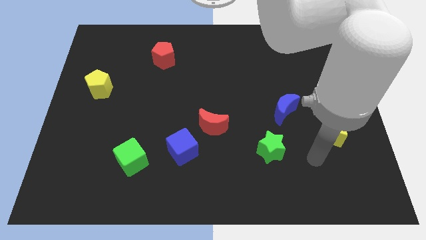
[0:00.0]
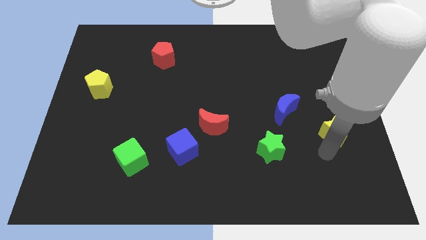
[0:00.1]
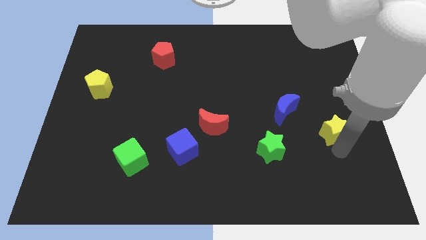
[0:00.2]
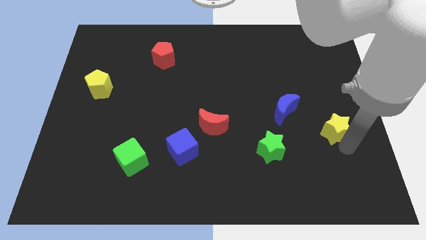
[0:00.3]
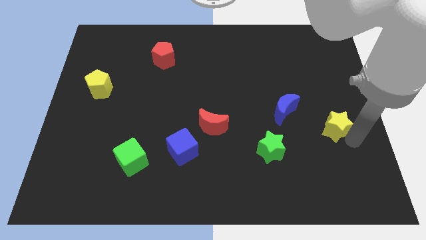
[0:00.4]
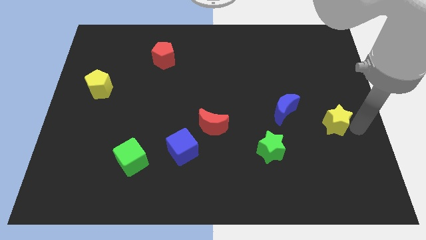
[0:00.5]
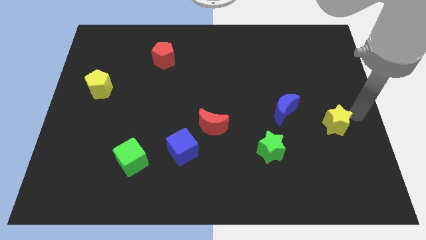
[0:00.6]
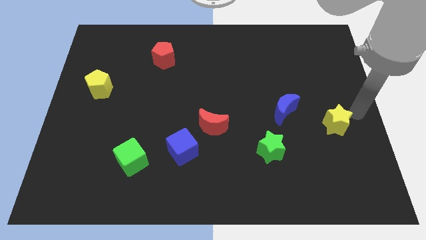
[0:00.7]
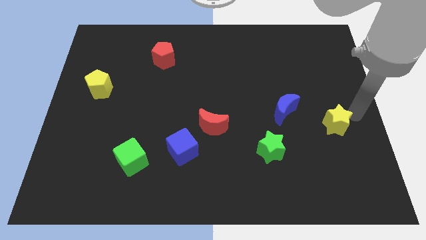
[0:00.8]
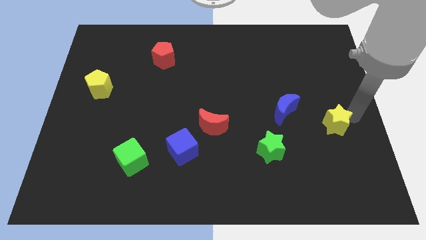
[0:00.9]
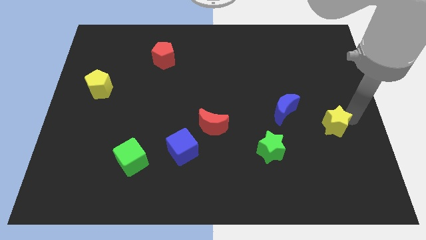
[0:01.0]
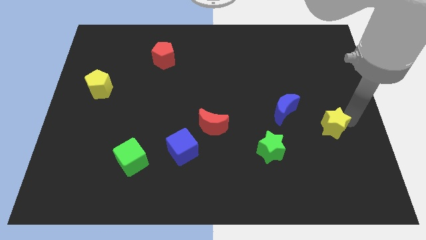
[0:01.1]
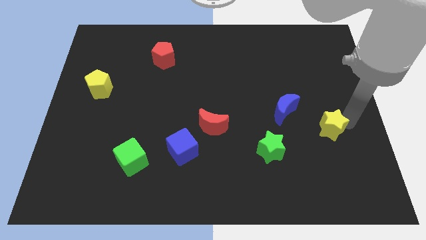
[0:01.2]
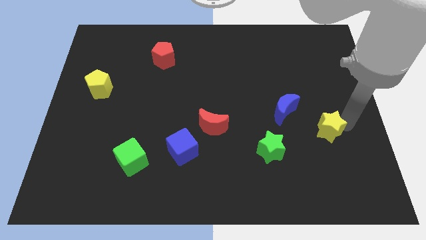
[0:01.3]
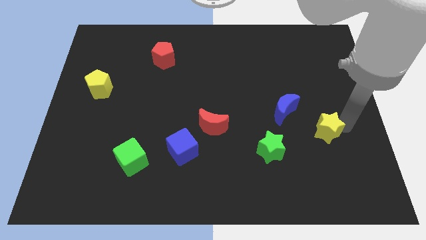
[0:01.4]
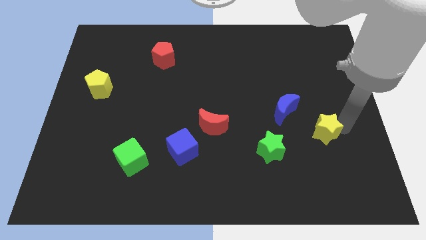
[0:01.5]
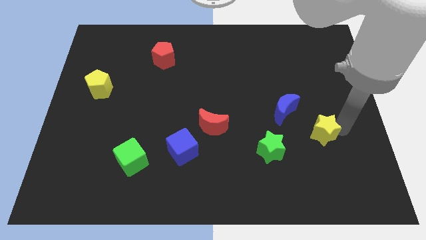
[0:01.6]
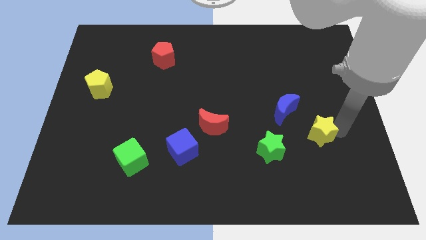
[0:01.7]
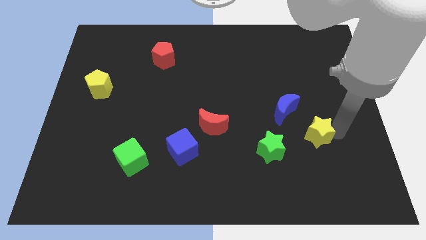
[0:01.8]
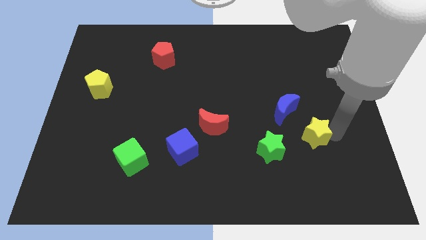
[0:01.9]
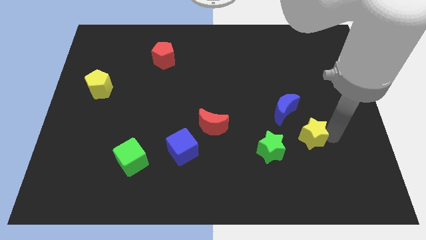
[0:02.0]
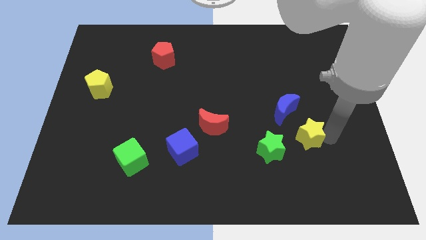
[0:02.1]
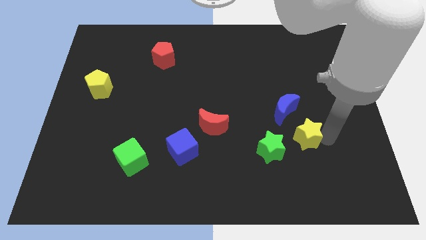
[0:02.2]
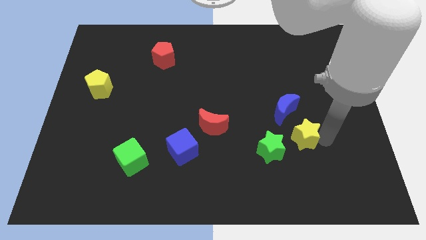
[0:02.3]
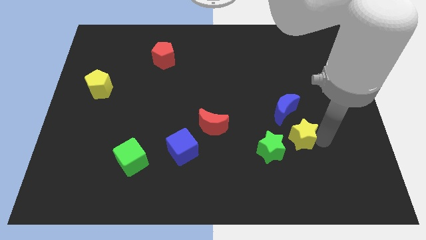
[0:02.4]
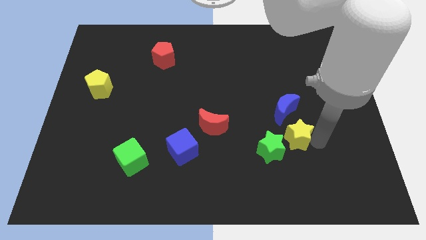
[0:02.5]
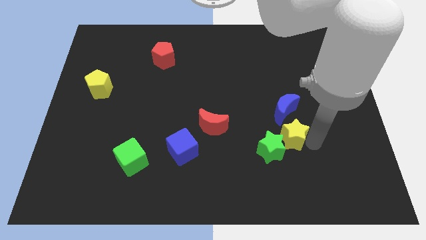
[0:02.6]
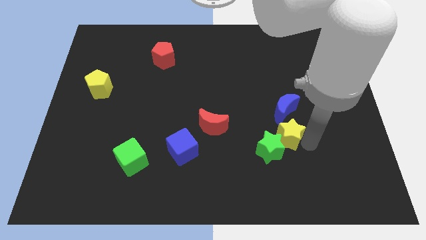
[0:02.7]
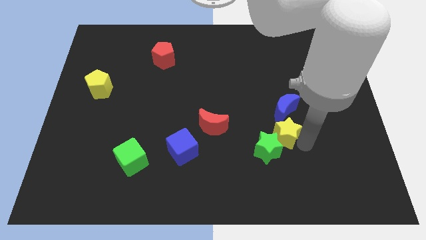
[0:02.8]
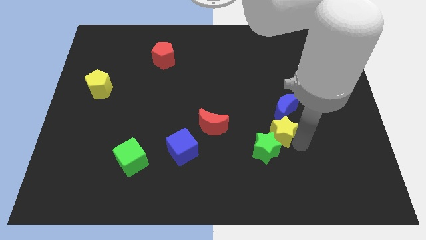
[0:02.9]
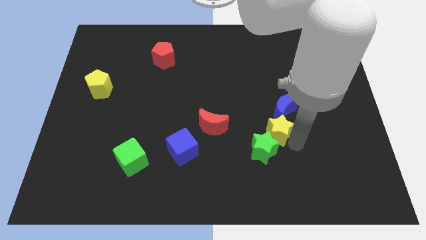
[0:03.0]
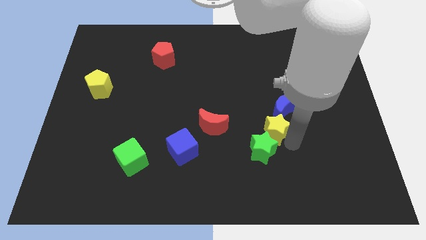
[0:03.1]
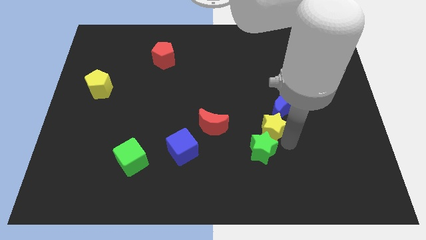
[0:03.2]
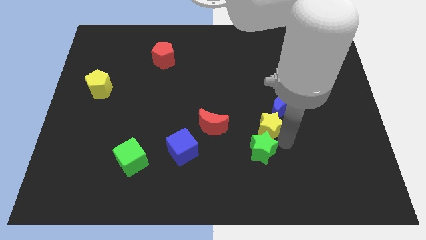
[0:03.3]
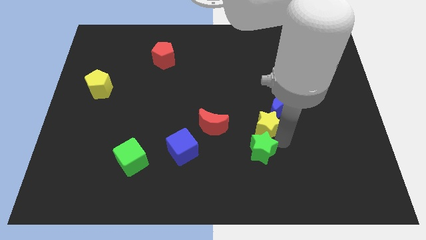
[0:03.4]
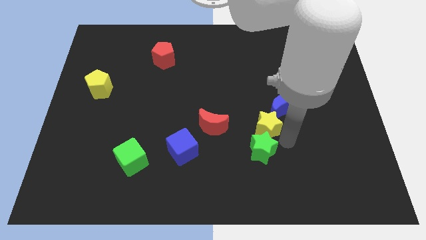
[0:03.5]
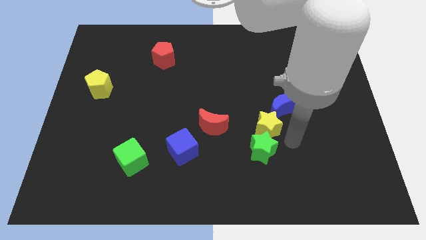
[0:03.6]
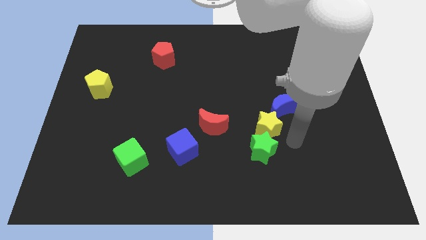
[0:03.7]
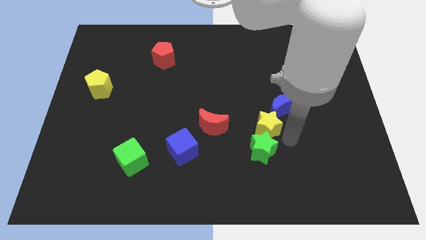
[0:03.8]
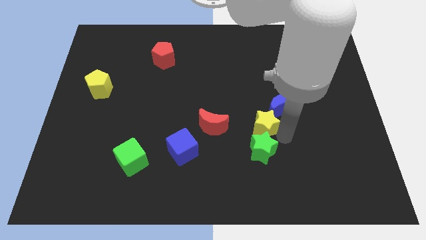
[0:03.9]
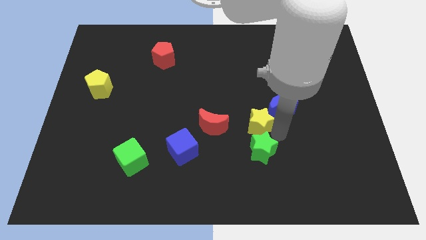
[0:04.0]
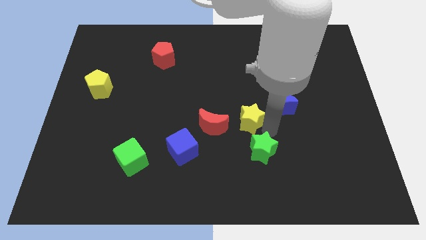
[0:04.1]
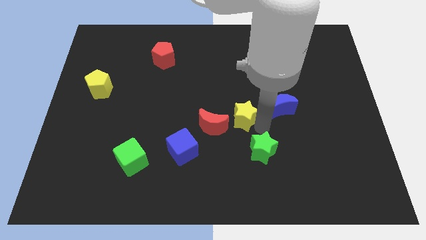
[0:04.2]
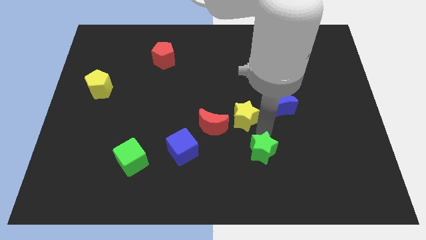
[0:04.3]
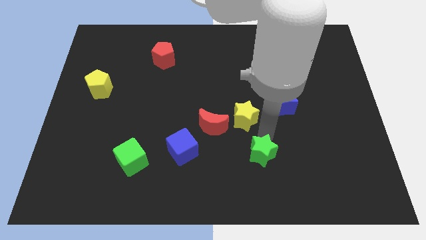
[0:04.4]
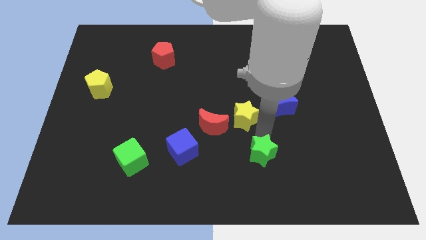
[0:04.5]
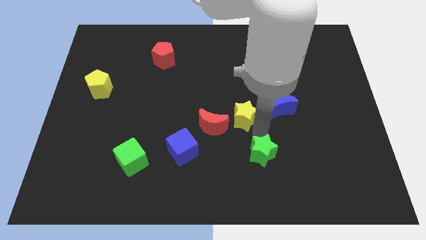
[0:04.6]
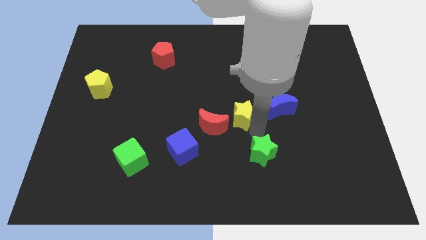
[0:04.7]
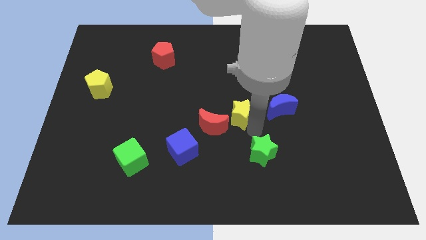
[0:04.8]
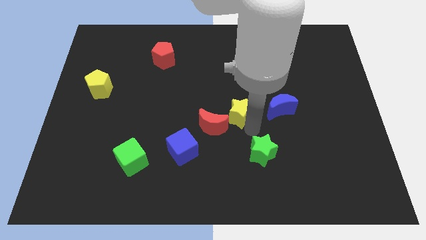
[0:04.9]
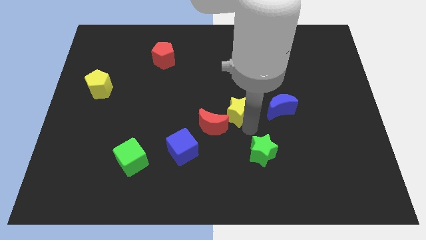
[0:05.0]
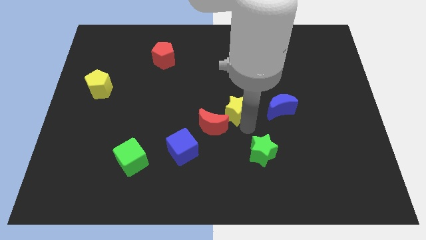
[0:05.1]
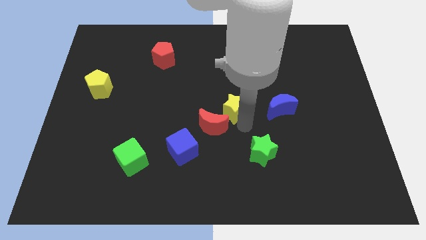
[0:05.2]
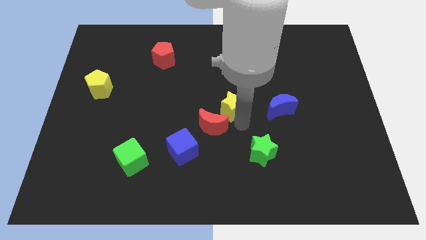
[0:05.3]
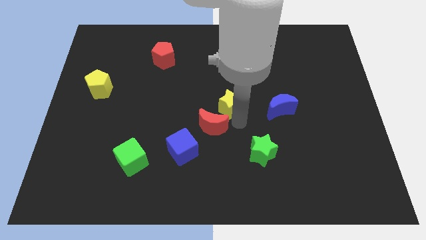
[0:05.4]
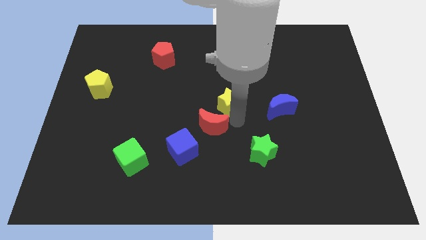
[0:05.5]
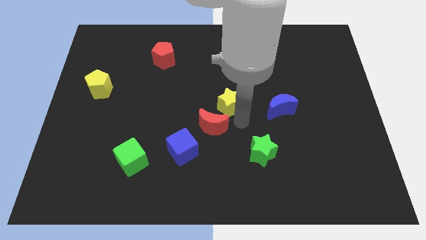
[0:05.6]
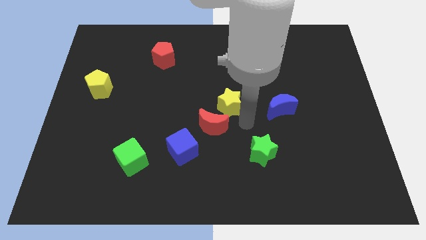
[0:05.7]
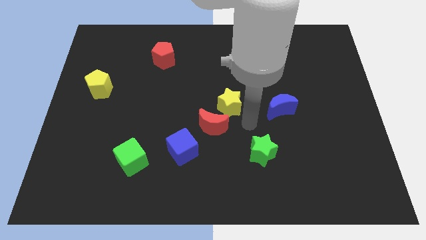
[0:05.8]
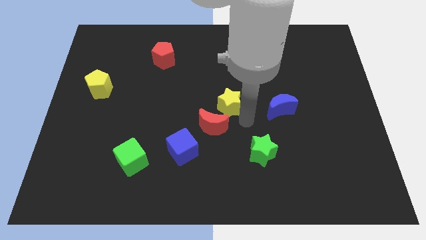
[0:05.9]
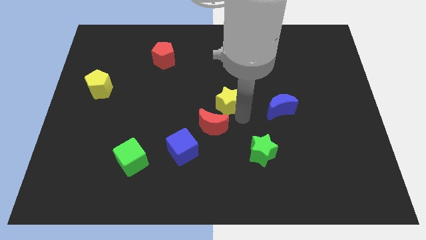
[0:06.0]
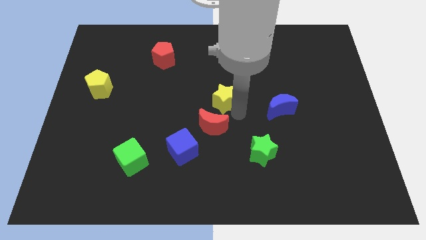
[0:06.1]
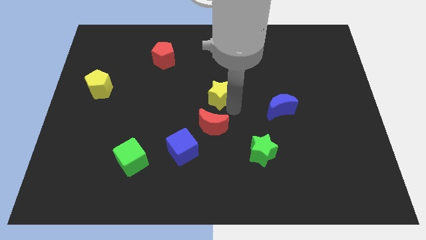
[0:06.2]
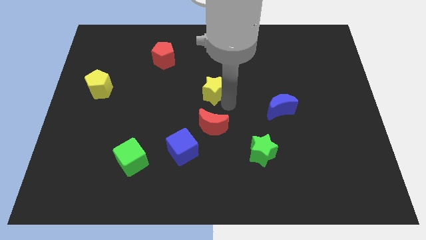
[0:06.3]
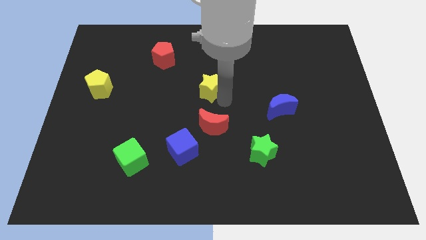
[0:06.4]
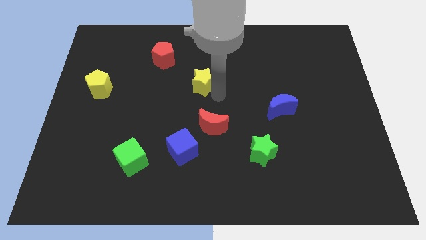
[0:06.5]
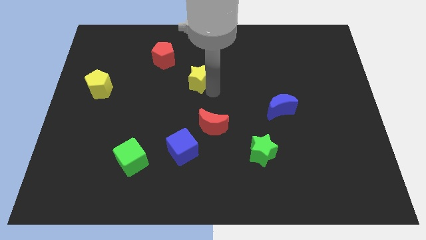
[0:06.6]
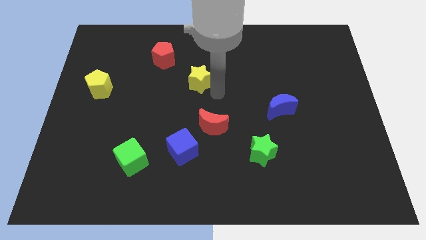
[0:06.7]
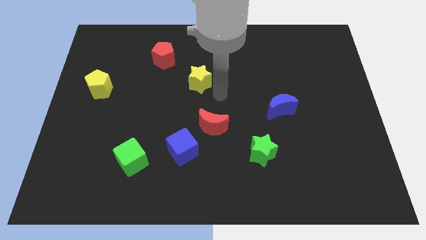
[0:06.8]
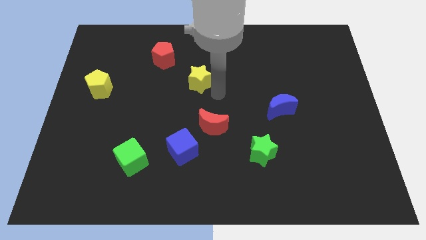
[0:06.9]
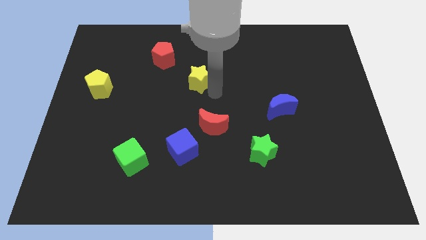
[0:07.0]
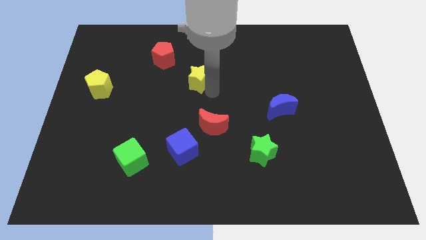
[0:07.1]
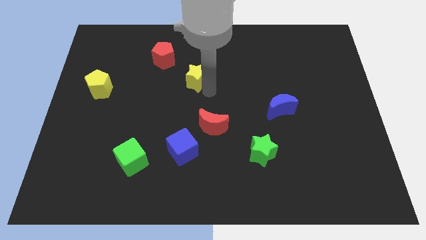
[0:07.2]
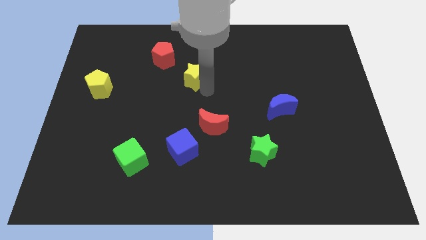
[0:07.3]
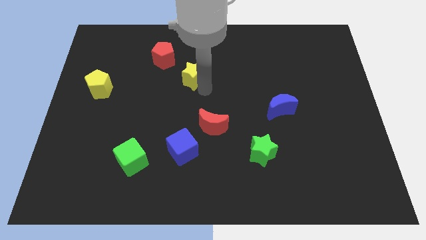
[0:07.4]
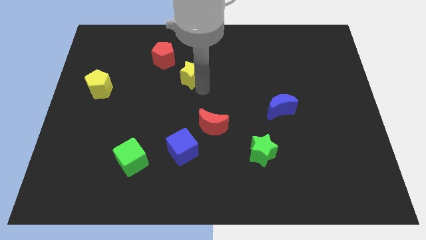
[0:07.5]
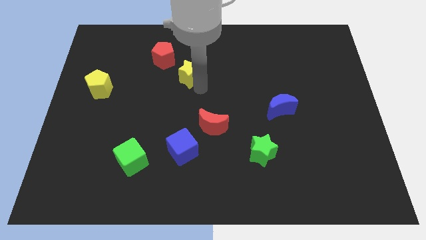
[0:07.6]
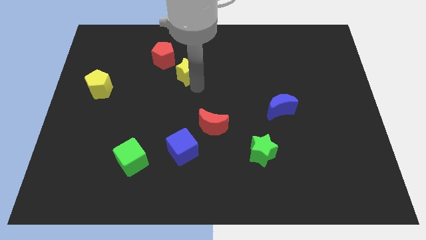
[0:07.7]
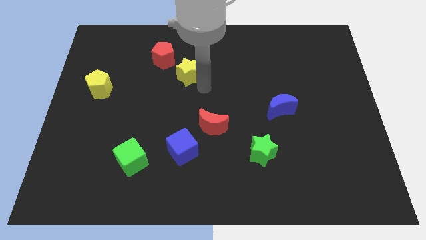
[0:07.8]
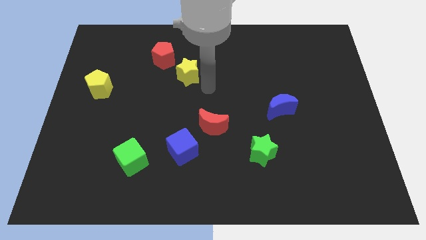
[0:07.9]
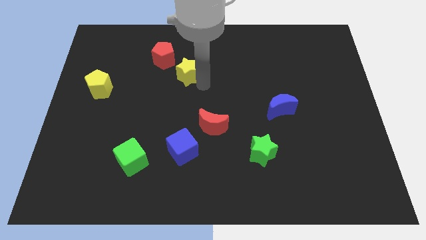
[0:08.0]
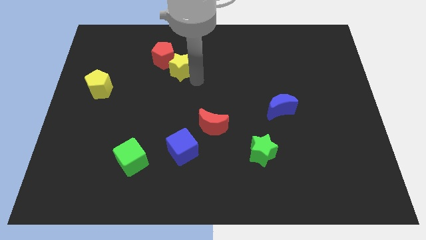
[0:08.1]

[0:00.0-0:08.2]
move the yellow star next to the red pentagon
